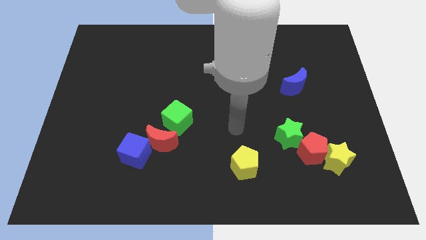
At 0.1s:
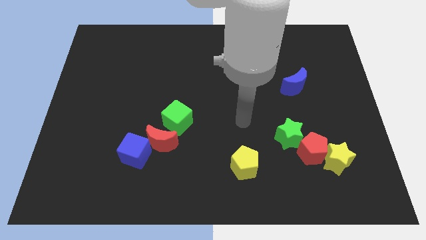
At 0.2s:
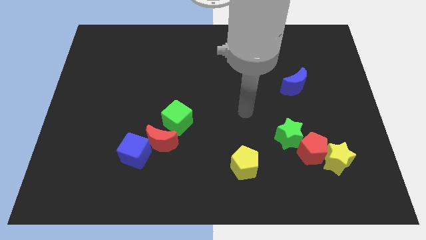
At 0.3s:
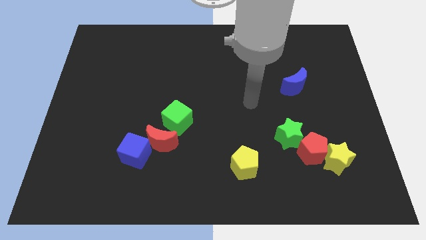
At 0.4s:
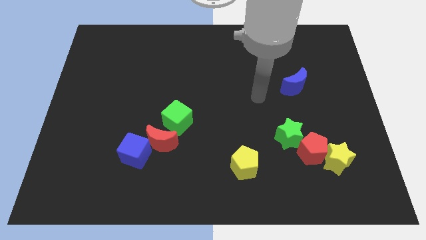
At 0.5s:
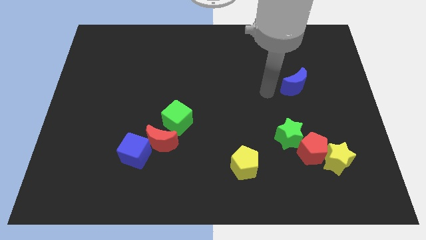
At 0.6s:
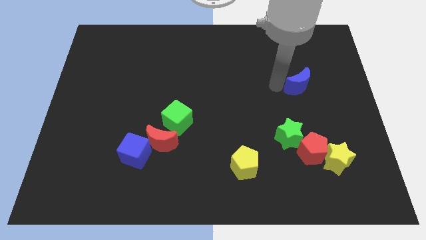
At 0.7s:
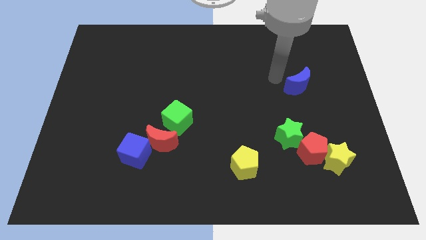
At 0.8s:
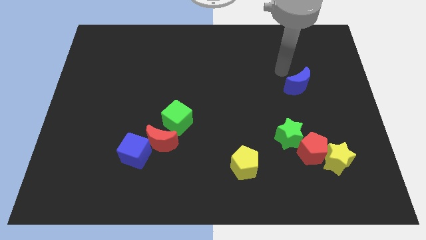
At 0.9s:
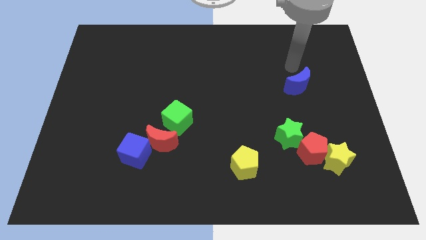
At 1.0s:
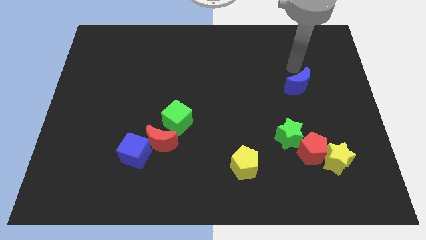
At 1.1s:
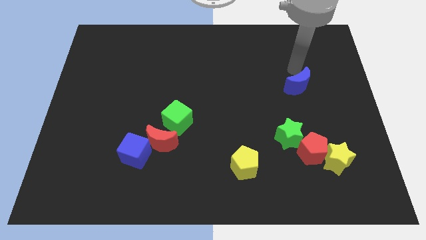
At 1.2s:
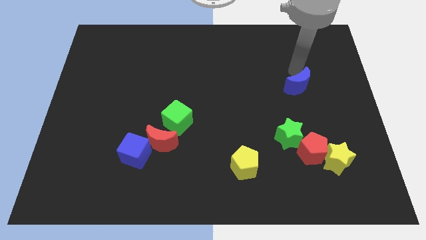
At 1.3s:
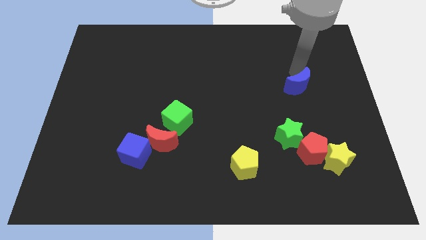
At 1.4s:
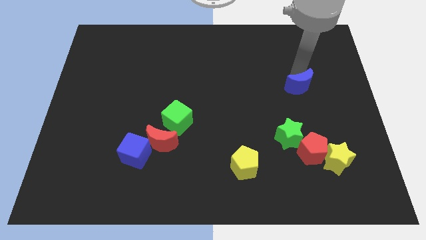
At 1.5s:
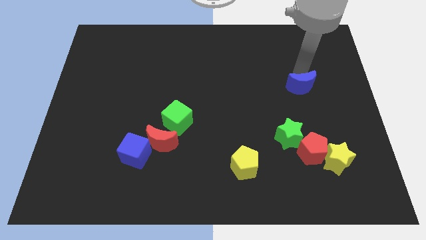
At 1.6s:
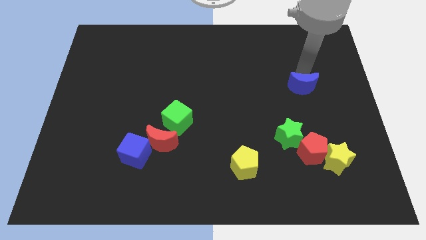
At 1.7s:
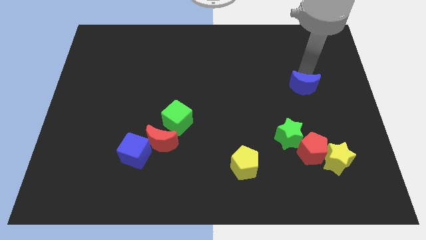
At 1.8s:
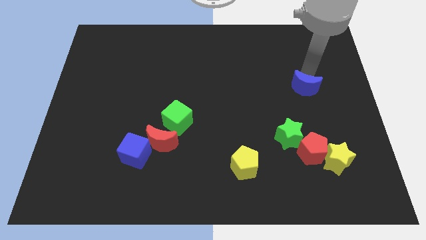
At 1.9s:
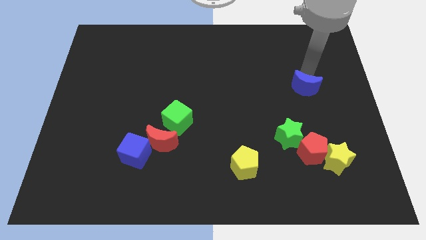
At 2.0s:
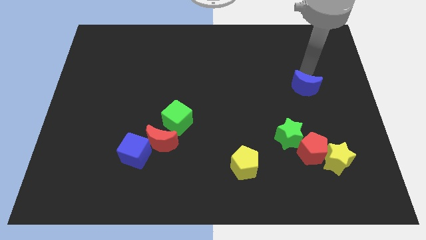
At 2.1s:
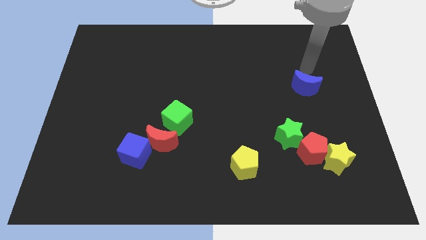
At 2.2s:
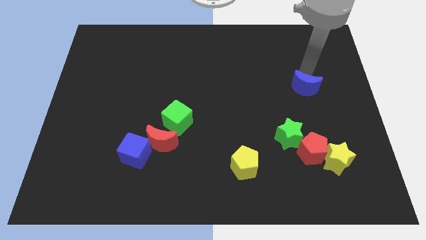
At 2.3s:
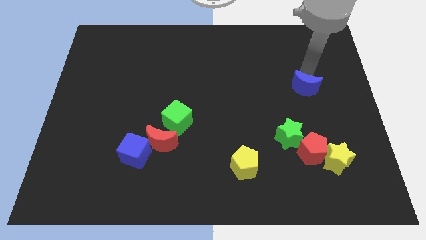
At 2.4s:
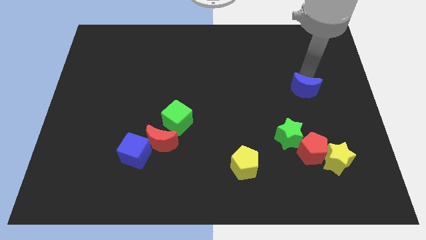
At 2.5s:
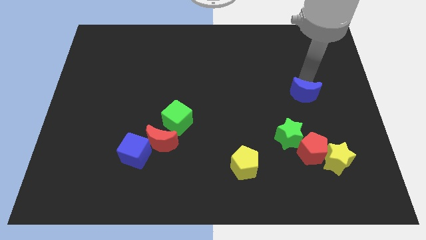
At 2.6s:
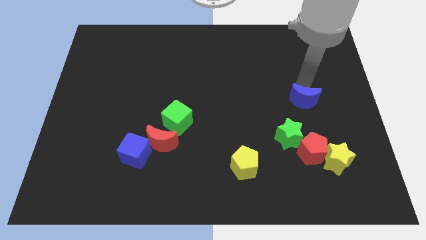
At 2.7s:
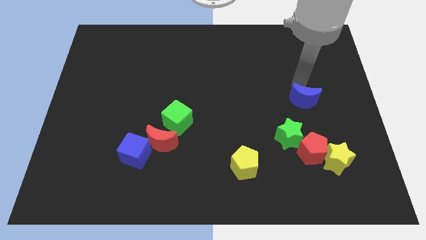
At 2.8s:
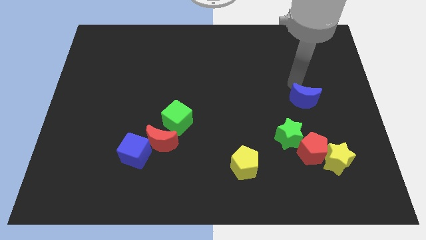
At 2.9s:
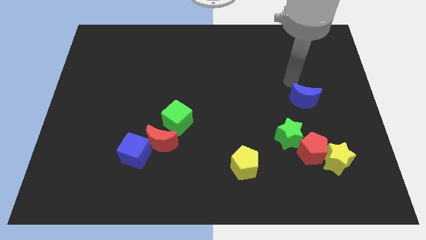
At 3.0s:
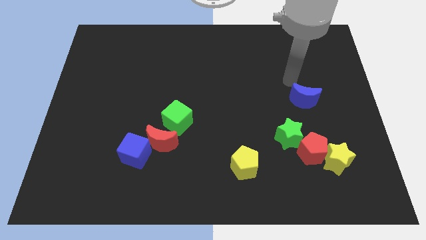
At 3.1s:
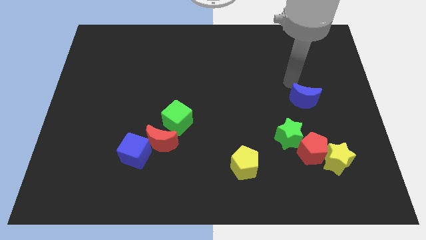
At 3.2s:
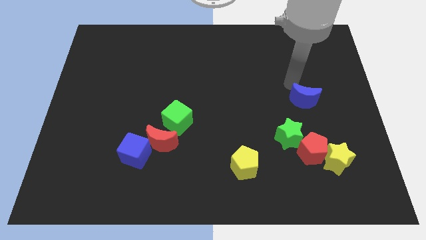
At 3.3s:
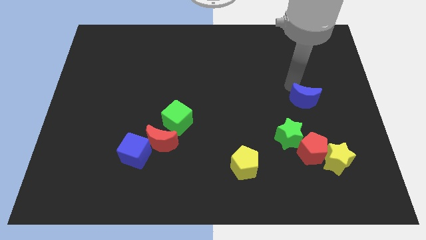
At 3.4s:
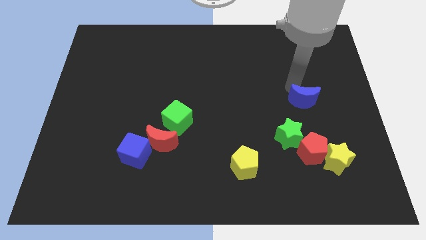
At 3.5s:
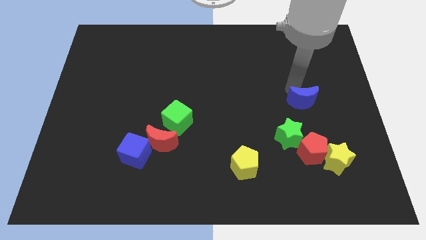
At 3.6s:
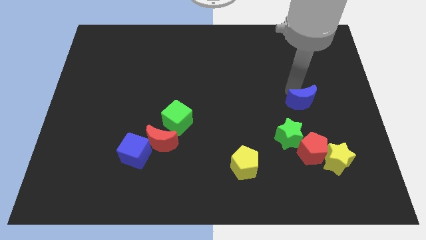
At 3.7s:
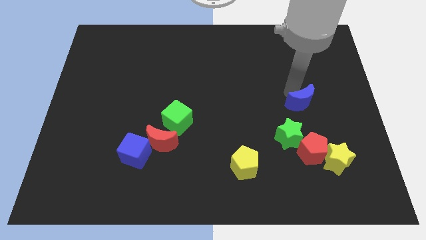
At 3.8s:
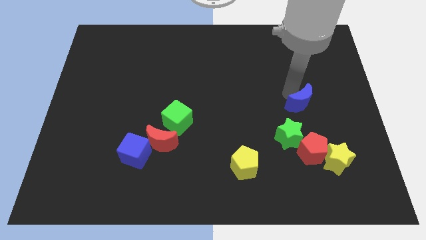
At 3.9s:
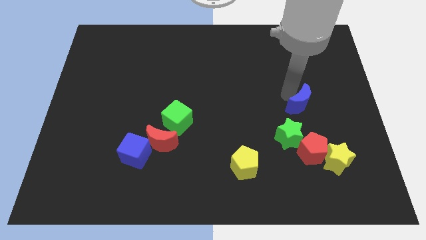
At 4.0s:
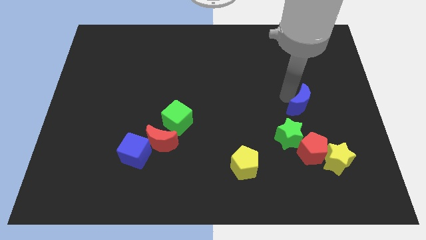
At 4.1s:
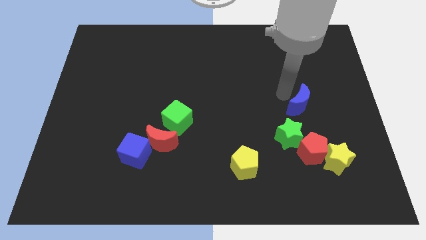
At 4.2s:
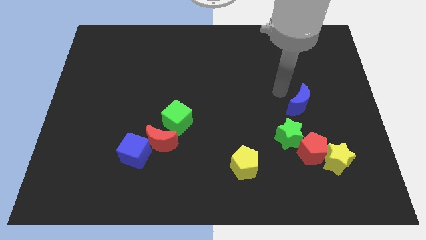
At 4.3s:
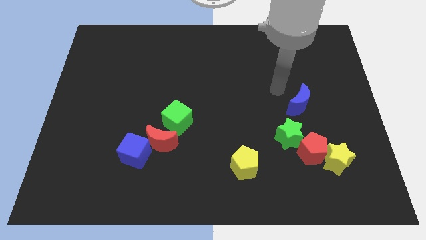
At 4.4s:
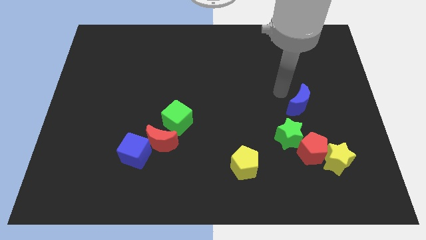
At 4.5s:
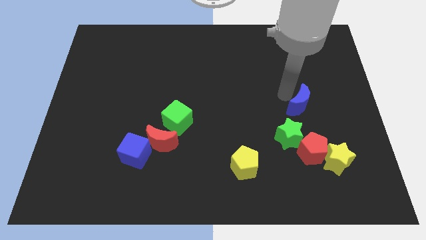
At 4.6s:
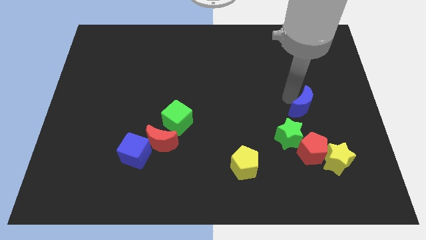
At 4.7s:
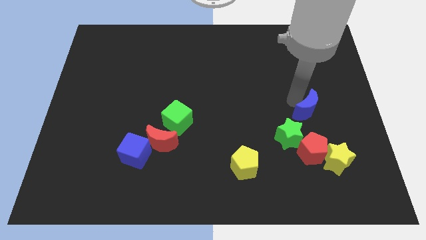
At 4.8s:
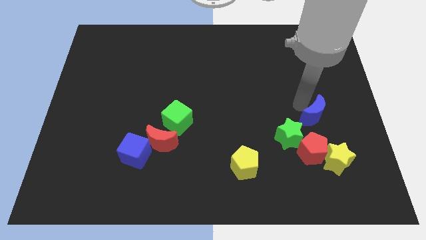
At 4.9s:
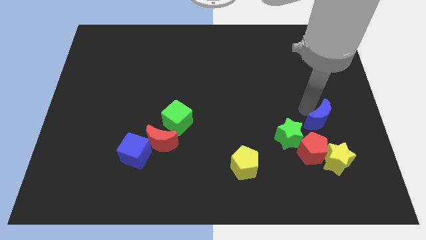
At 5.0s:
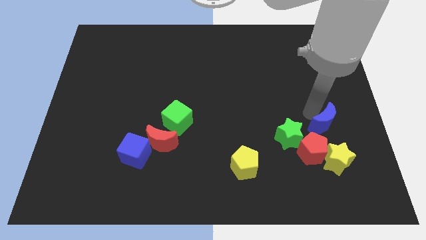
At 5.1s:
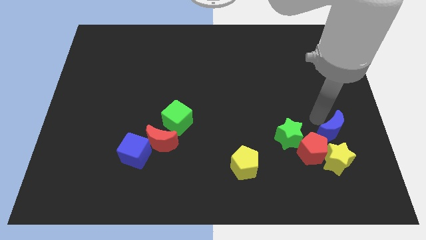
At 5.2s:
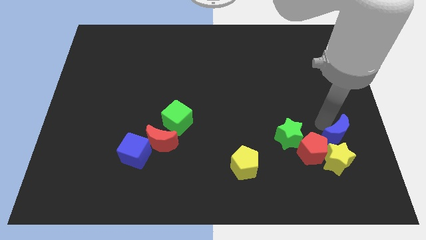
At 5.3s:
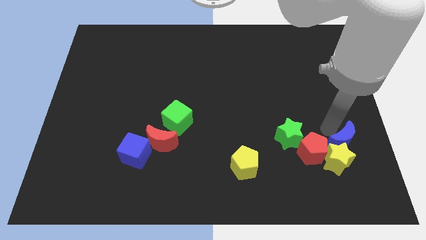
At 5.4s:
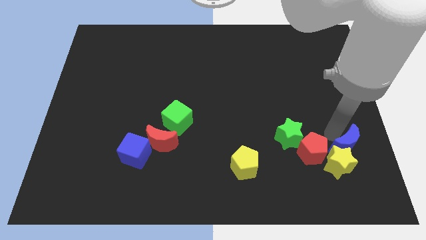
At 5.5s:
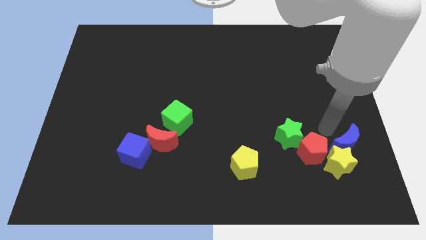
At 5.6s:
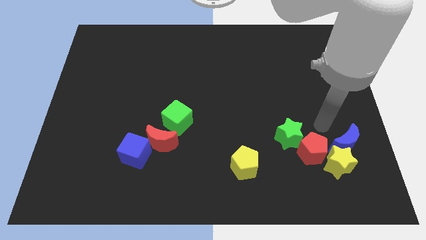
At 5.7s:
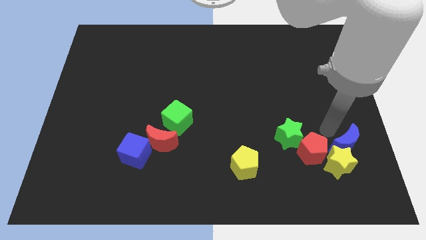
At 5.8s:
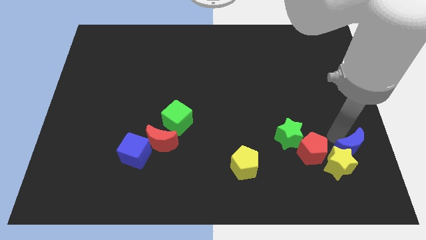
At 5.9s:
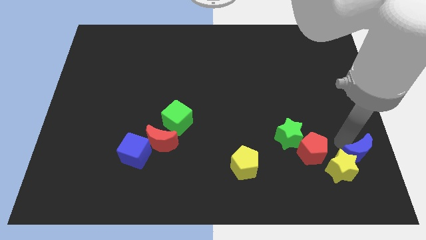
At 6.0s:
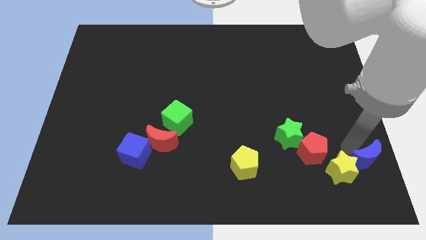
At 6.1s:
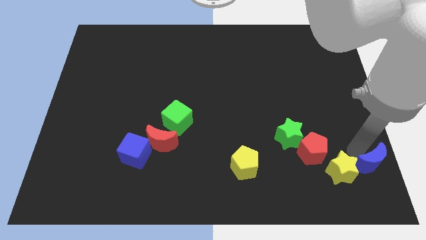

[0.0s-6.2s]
move the blue moon to the lower right corner
